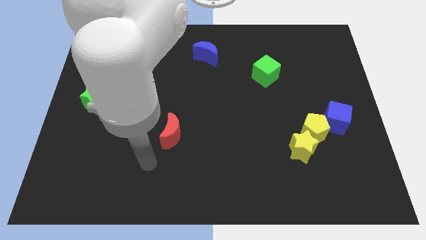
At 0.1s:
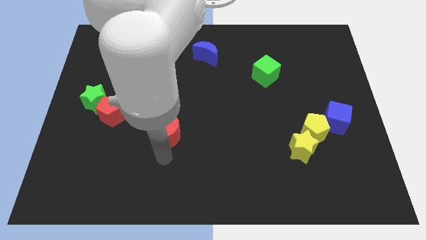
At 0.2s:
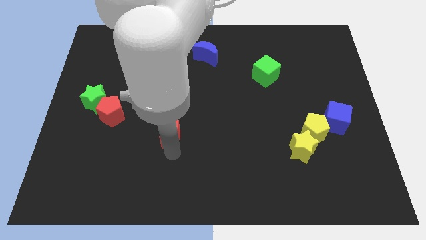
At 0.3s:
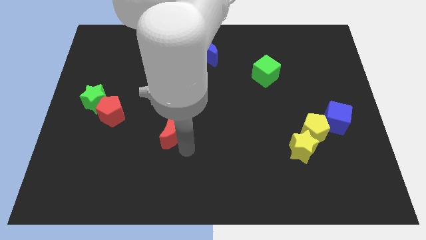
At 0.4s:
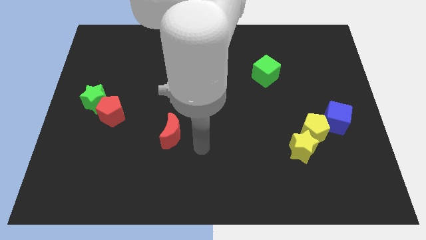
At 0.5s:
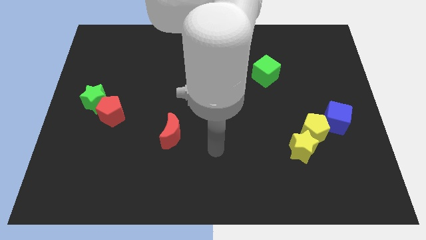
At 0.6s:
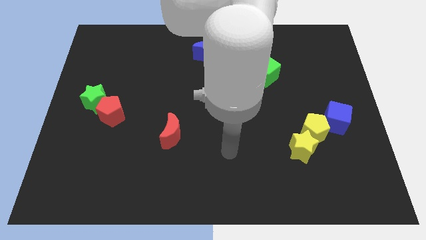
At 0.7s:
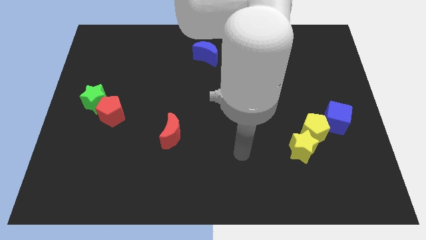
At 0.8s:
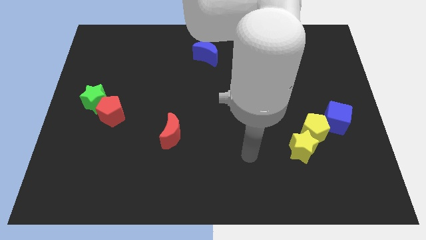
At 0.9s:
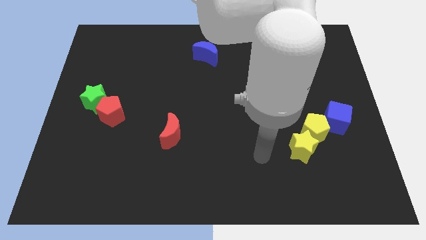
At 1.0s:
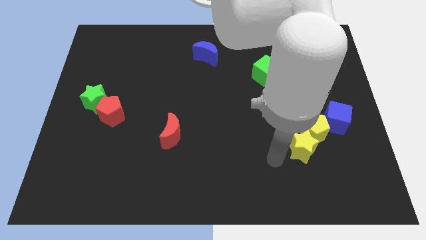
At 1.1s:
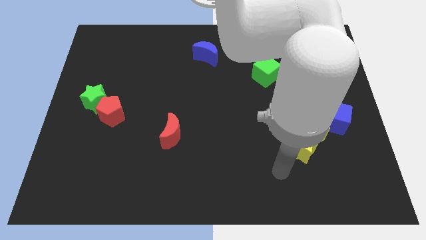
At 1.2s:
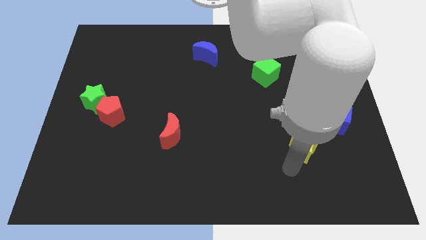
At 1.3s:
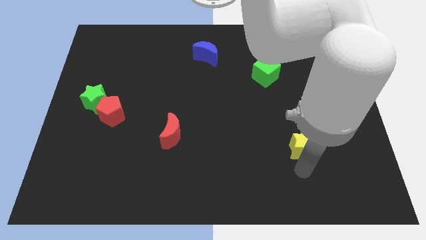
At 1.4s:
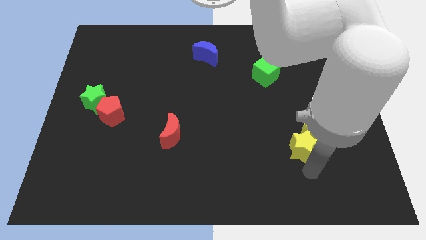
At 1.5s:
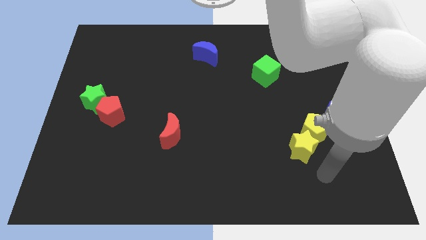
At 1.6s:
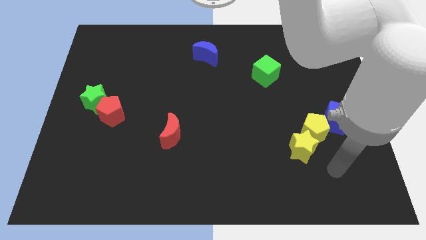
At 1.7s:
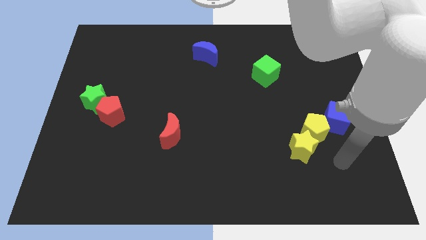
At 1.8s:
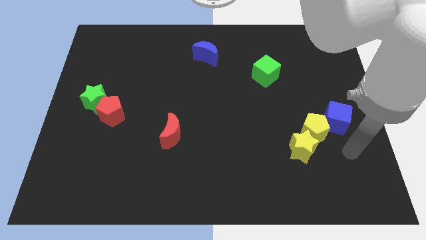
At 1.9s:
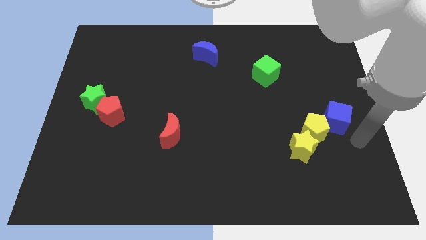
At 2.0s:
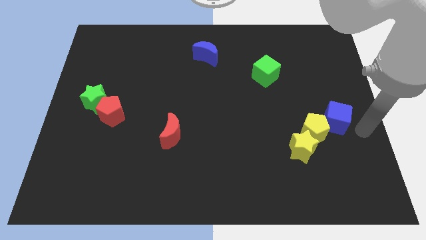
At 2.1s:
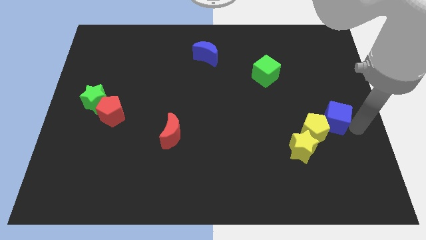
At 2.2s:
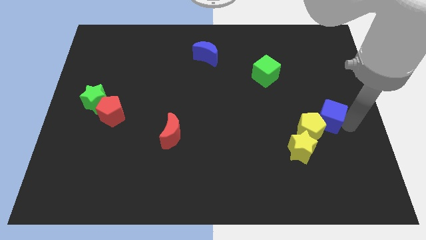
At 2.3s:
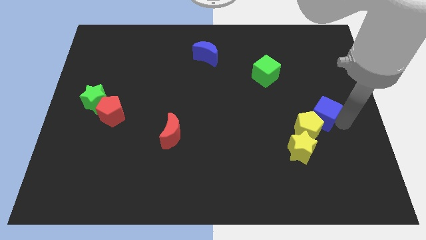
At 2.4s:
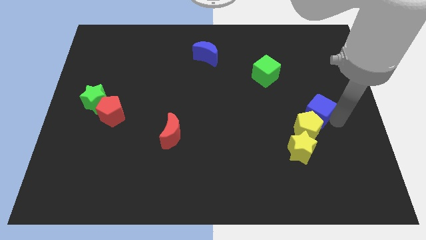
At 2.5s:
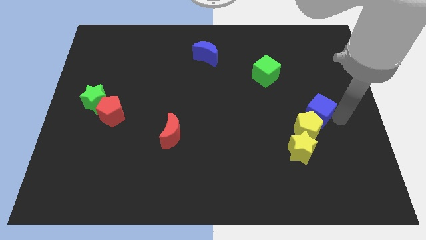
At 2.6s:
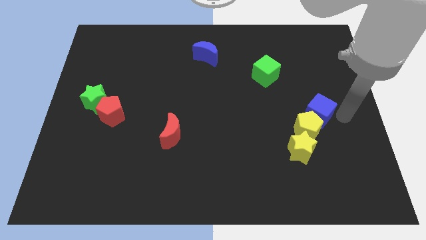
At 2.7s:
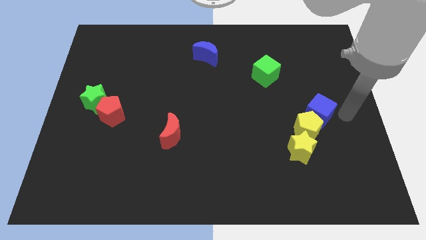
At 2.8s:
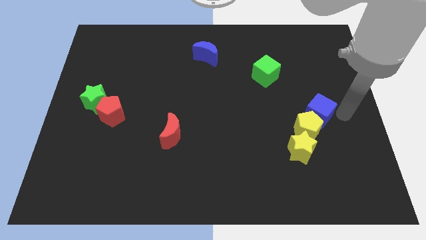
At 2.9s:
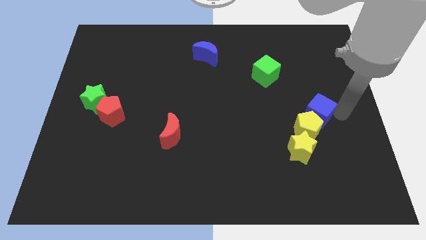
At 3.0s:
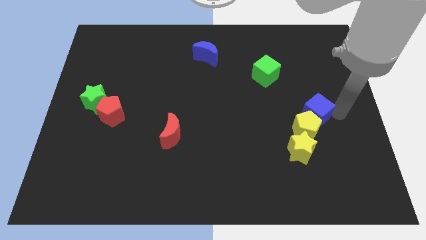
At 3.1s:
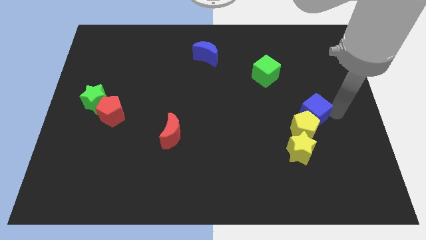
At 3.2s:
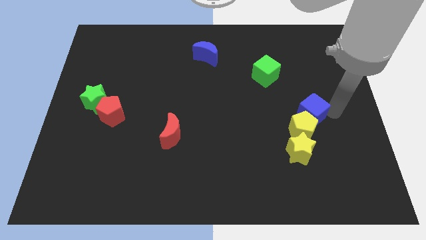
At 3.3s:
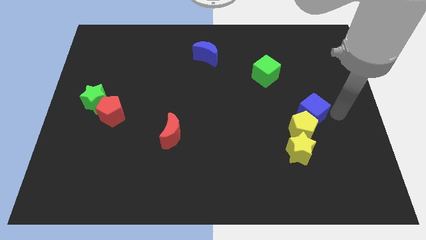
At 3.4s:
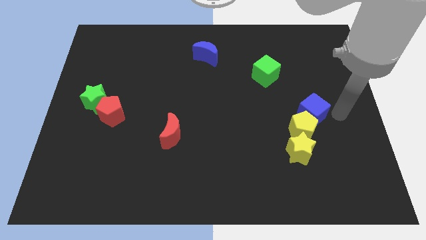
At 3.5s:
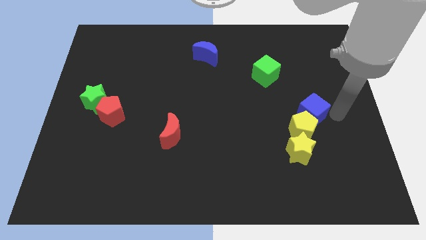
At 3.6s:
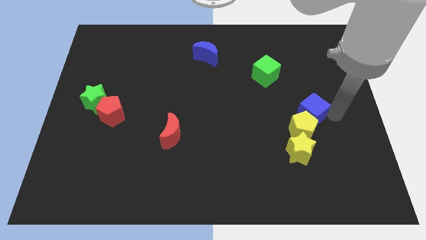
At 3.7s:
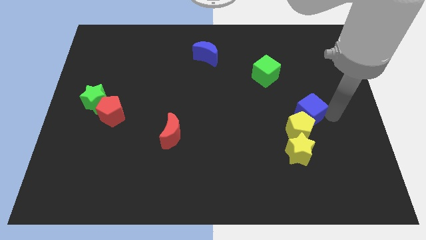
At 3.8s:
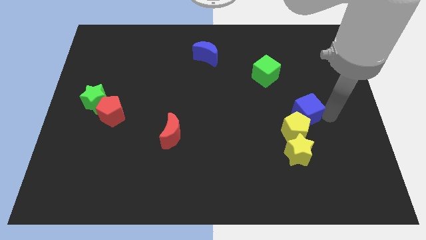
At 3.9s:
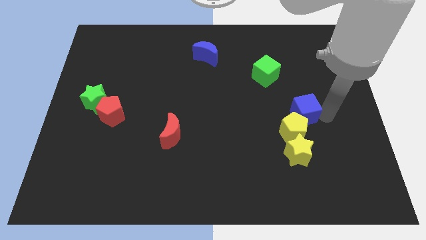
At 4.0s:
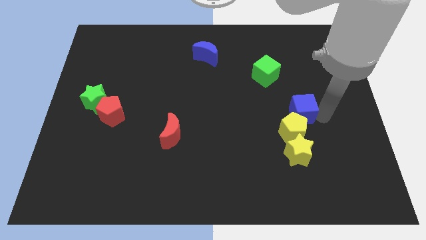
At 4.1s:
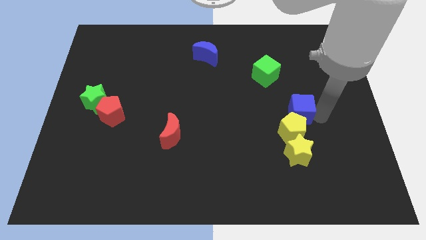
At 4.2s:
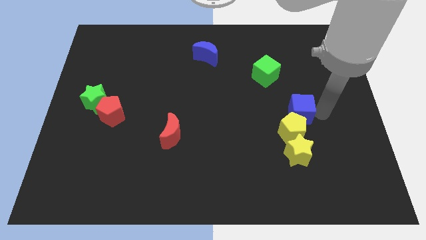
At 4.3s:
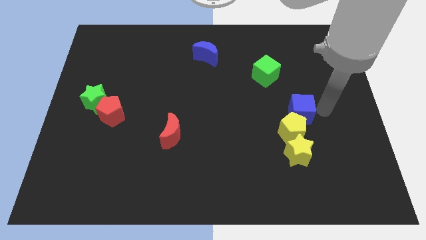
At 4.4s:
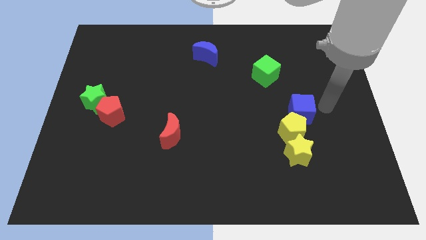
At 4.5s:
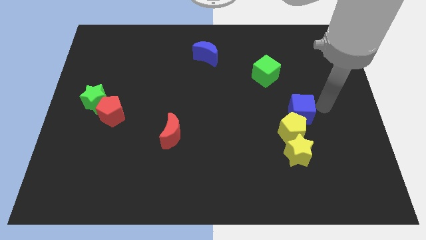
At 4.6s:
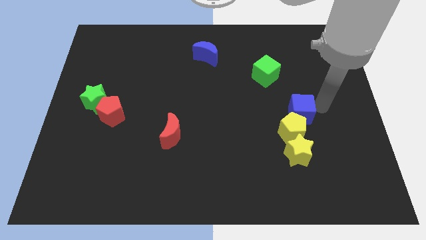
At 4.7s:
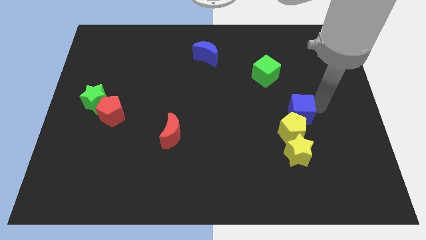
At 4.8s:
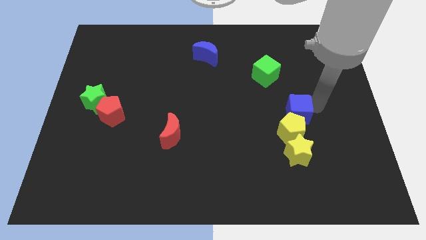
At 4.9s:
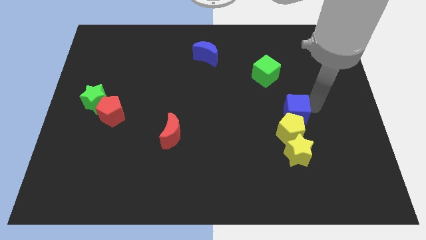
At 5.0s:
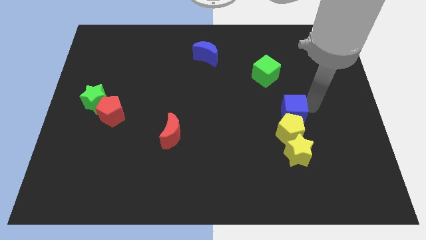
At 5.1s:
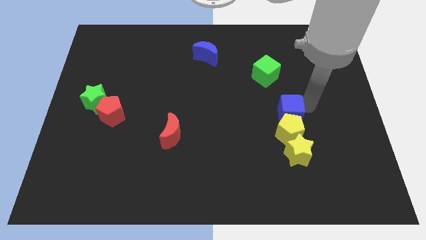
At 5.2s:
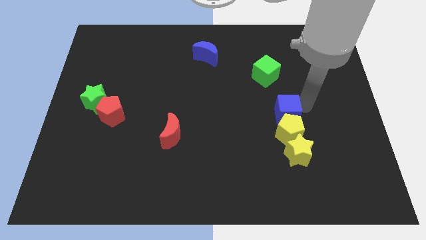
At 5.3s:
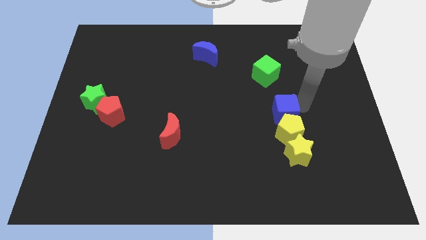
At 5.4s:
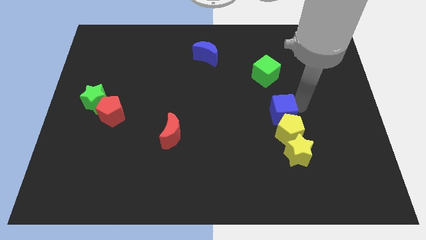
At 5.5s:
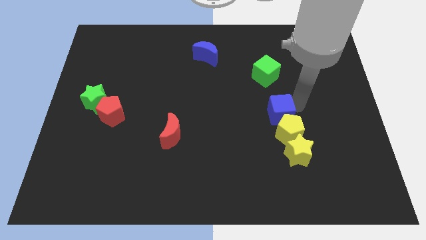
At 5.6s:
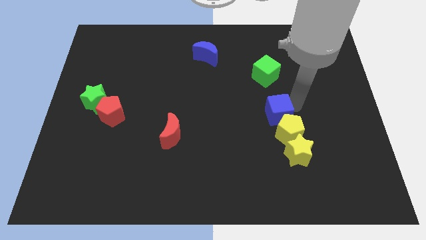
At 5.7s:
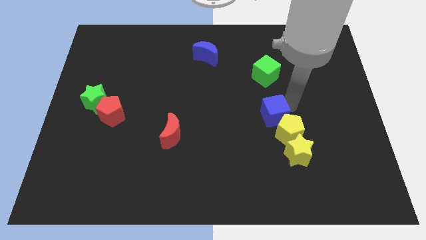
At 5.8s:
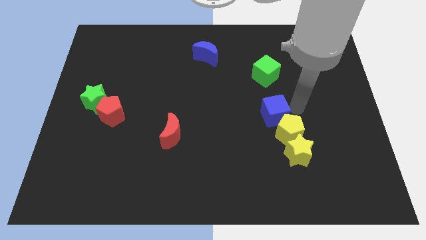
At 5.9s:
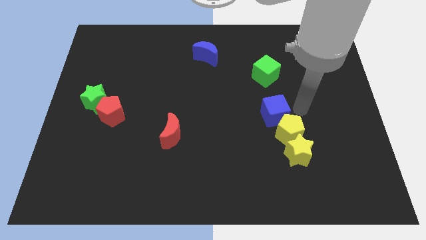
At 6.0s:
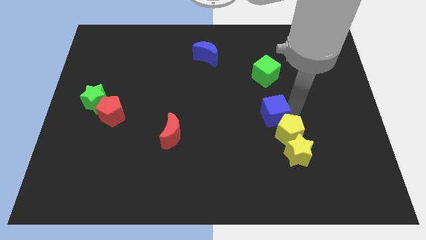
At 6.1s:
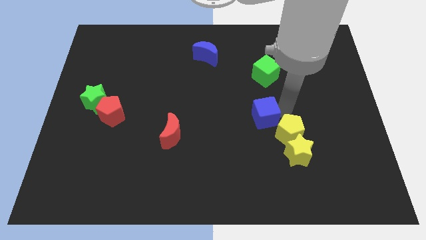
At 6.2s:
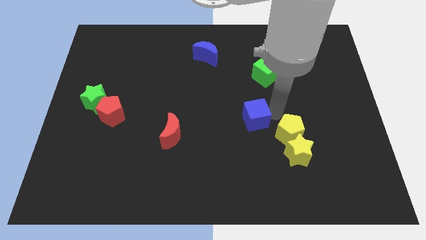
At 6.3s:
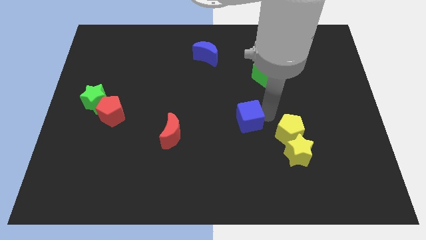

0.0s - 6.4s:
slide the blue cube to the left

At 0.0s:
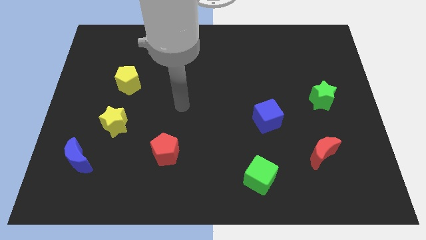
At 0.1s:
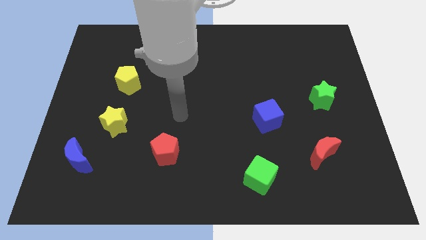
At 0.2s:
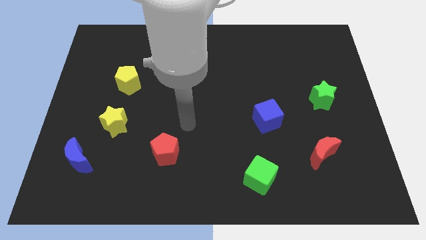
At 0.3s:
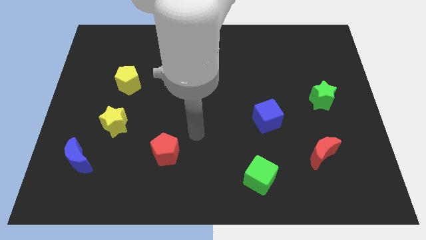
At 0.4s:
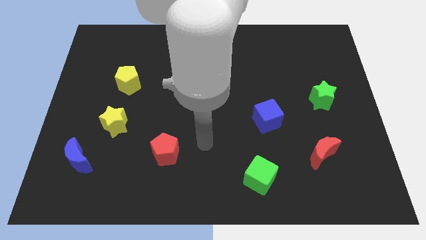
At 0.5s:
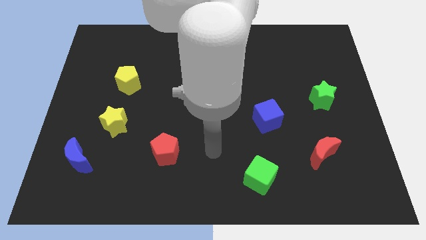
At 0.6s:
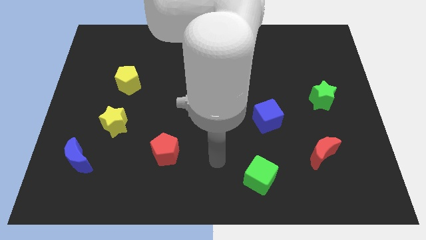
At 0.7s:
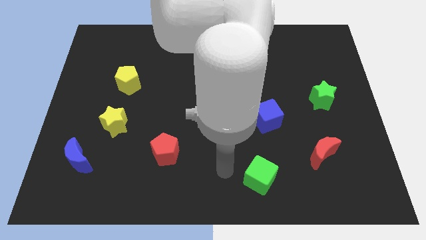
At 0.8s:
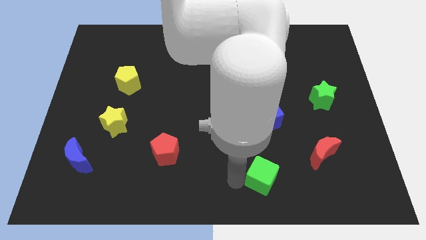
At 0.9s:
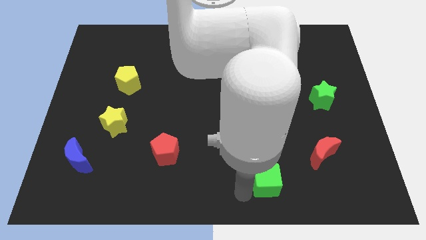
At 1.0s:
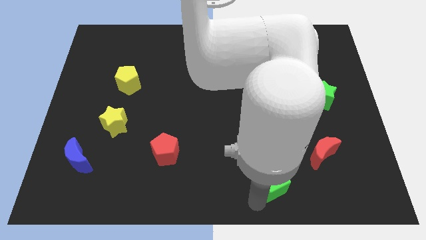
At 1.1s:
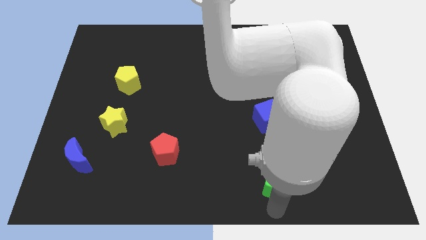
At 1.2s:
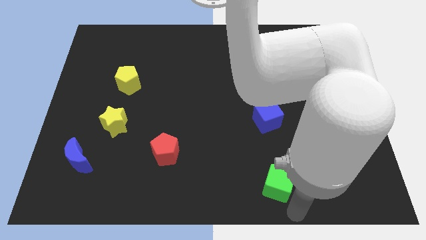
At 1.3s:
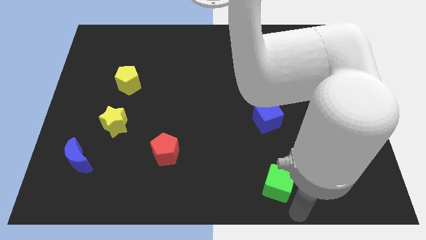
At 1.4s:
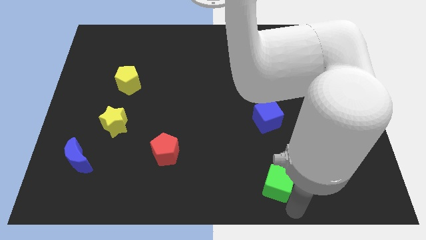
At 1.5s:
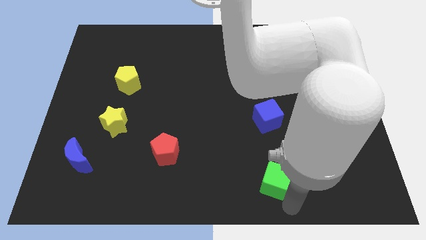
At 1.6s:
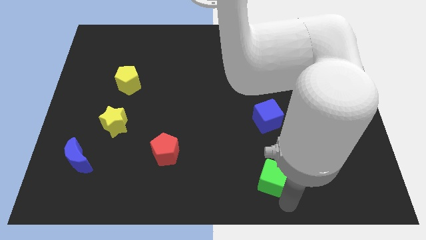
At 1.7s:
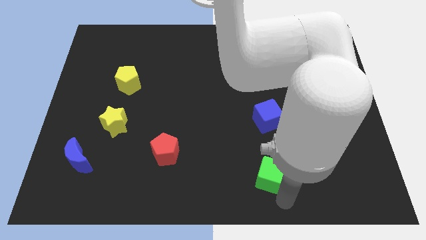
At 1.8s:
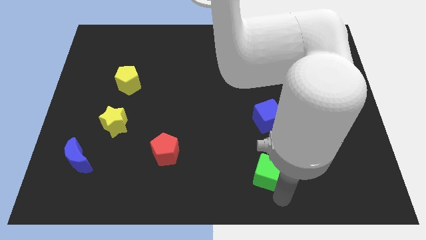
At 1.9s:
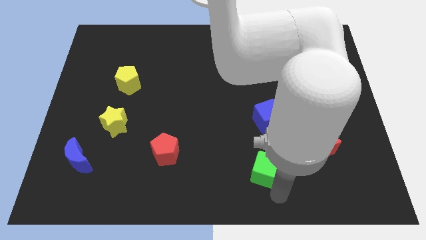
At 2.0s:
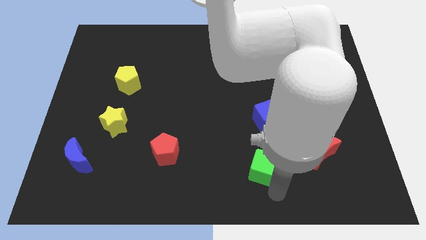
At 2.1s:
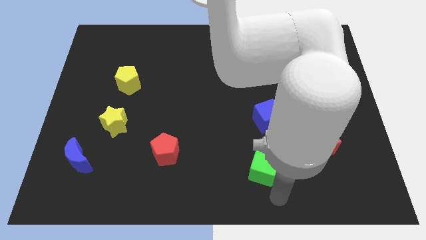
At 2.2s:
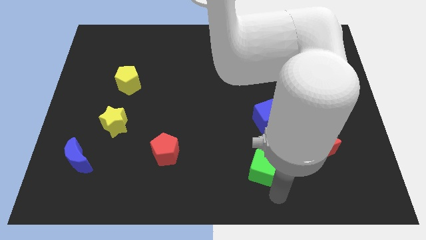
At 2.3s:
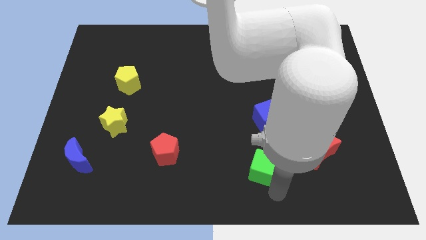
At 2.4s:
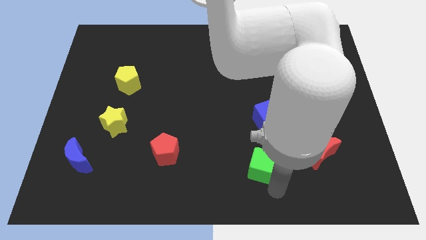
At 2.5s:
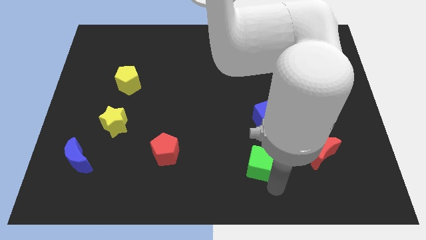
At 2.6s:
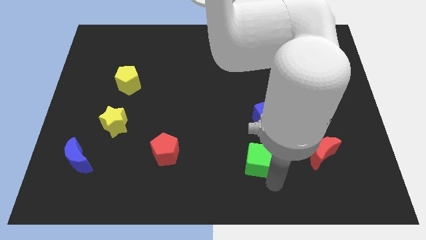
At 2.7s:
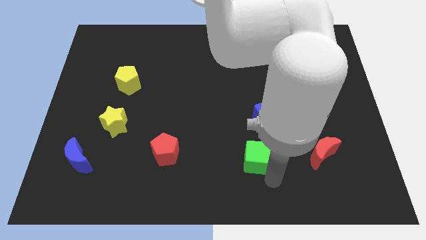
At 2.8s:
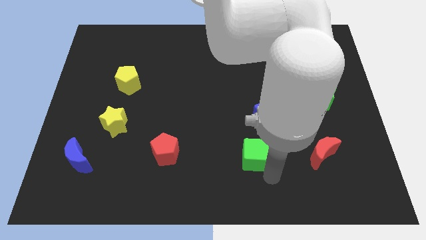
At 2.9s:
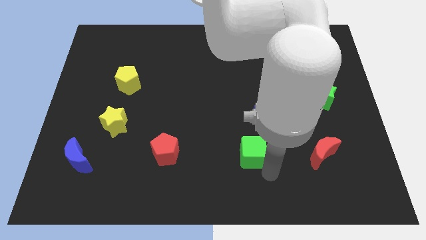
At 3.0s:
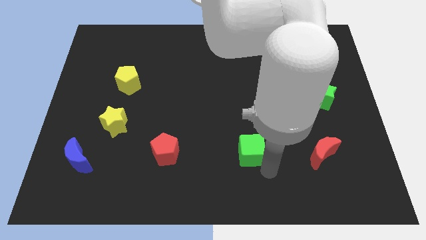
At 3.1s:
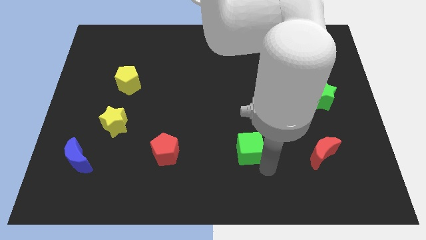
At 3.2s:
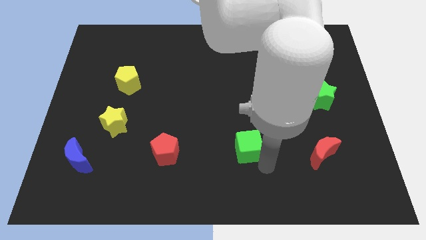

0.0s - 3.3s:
slide the green cube a bit upwards
